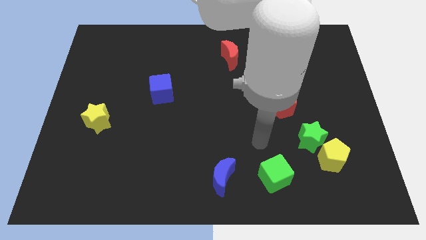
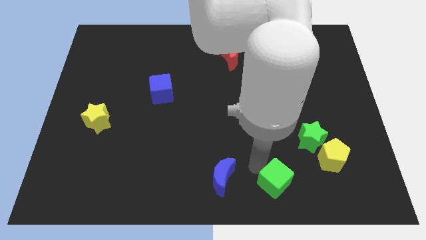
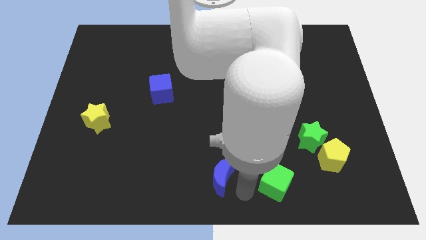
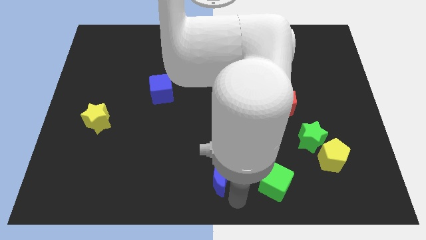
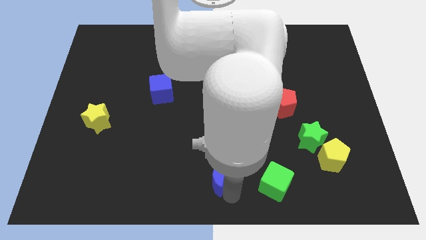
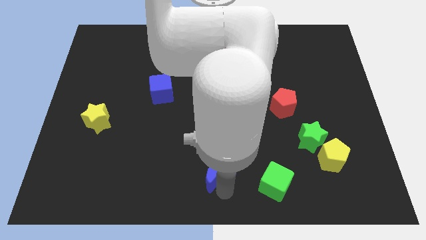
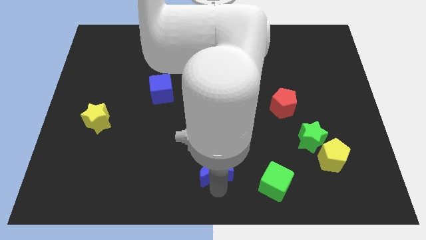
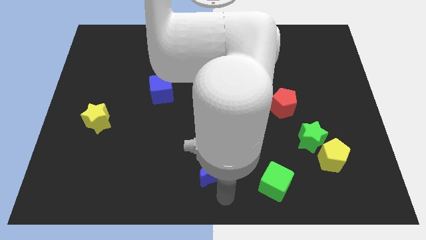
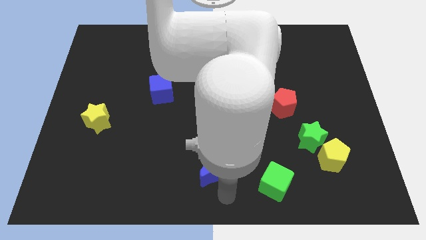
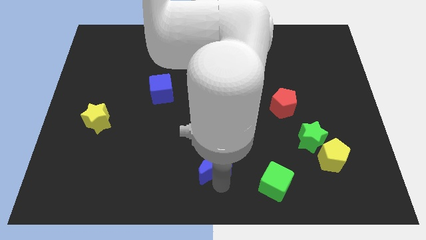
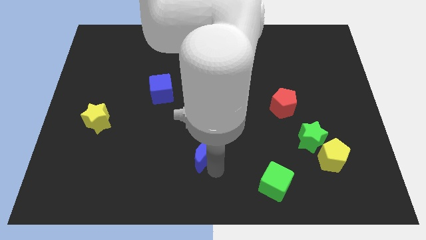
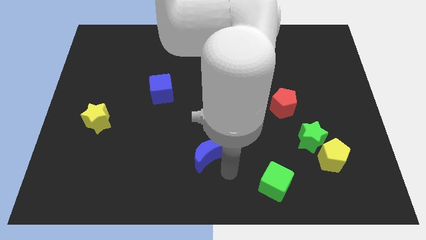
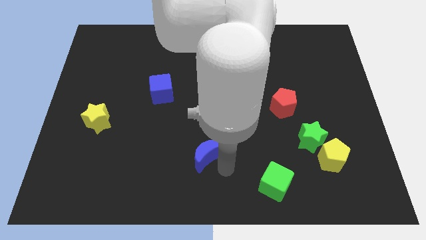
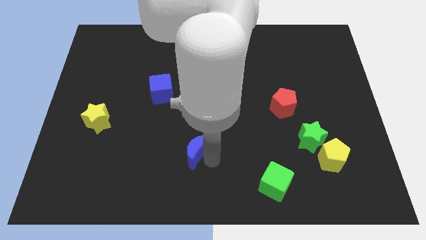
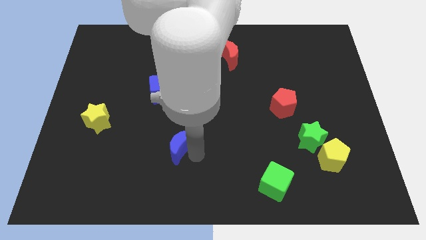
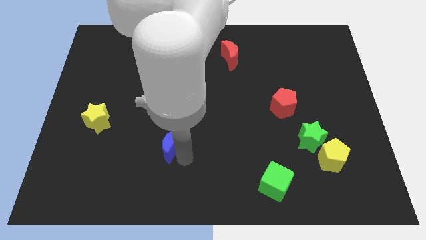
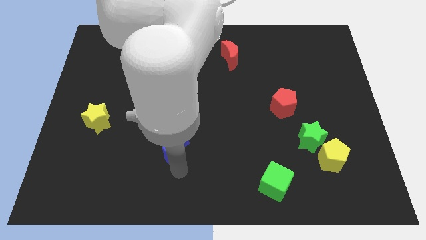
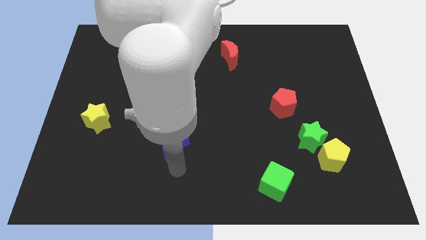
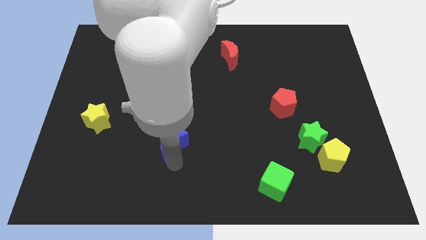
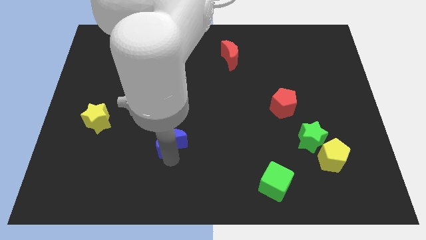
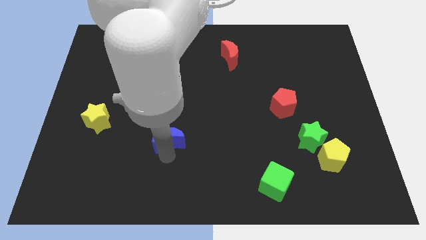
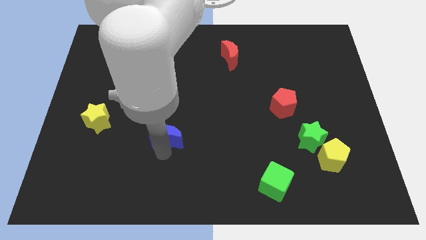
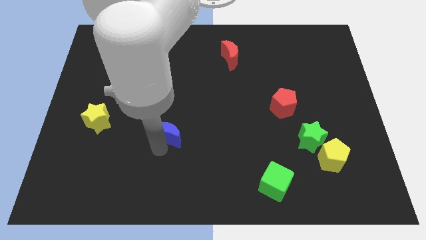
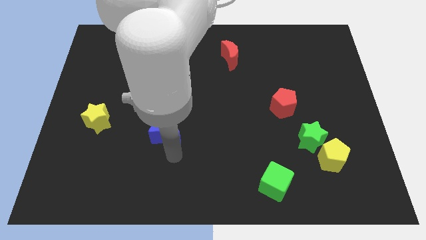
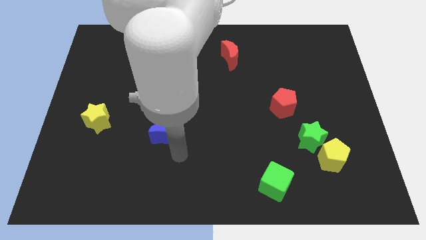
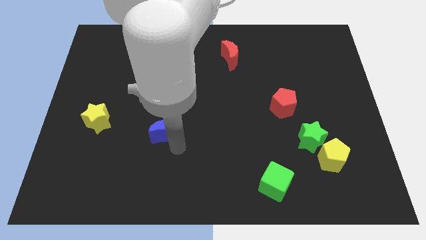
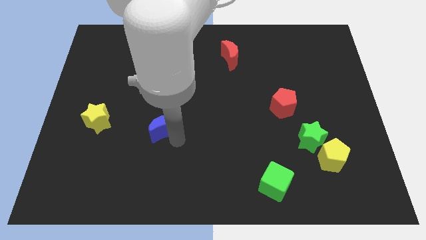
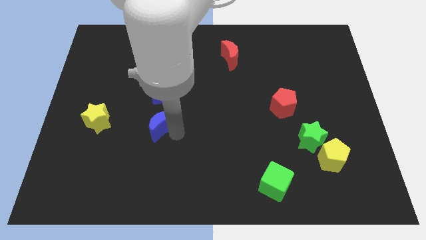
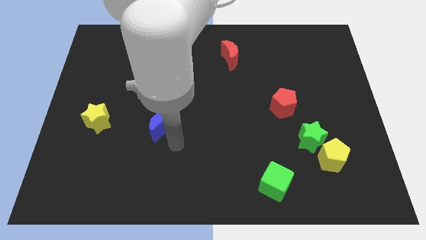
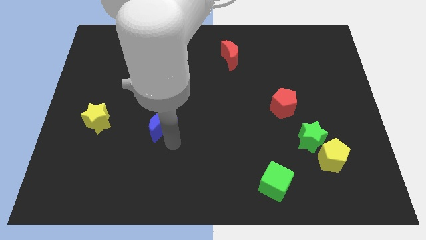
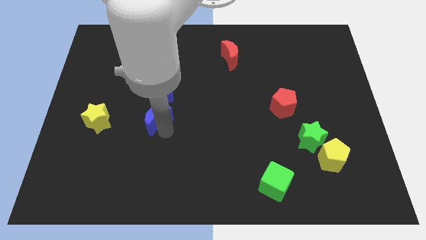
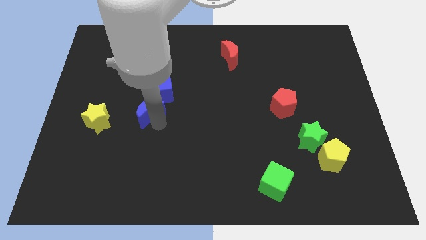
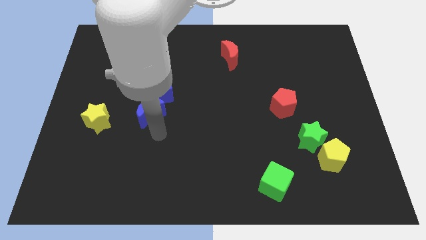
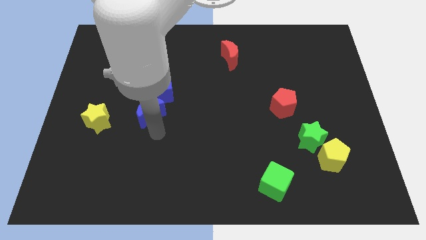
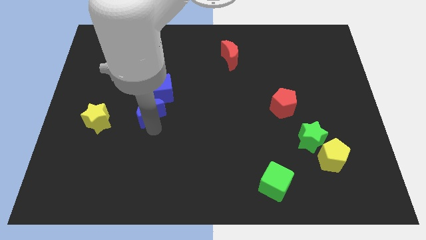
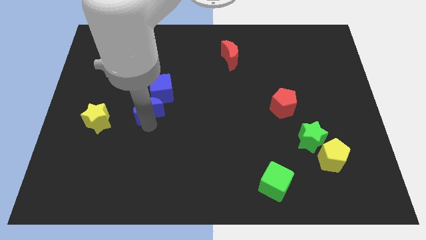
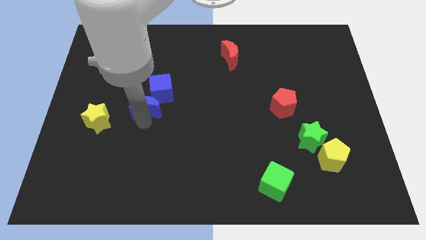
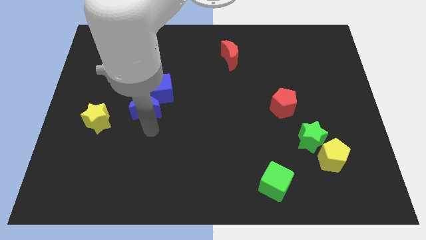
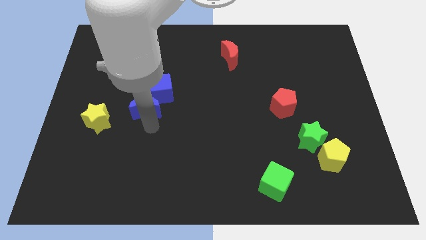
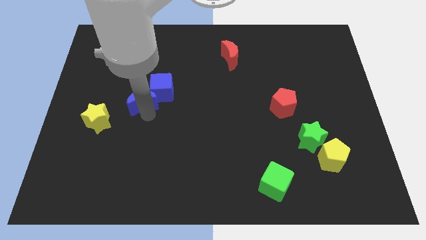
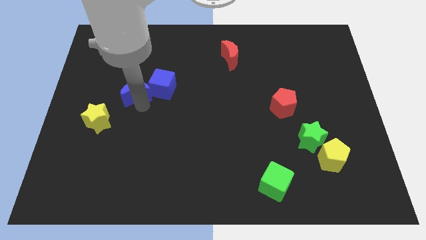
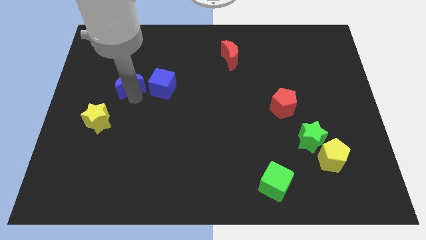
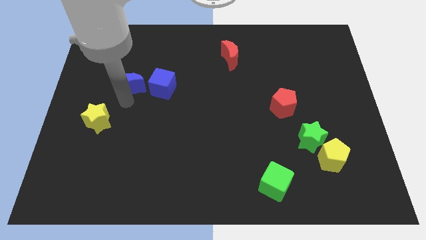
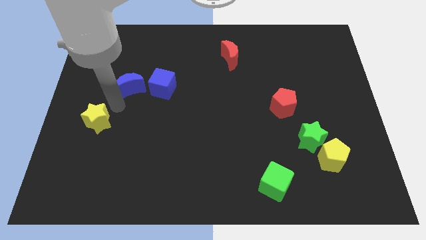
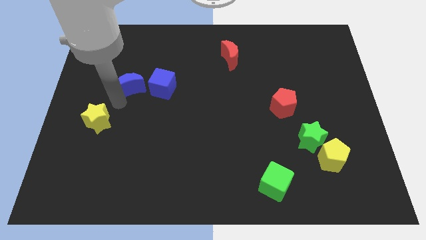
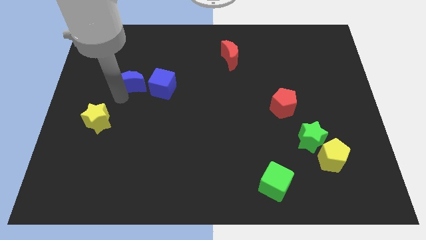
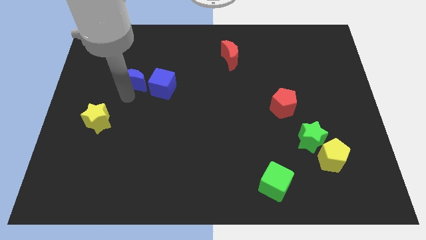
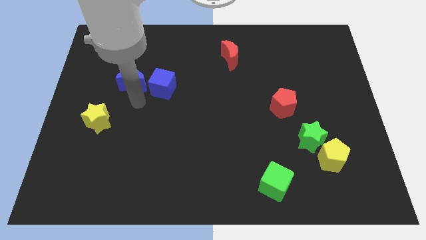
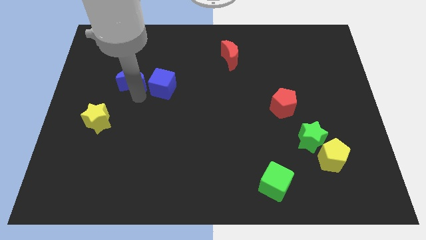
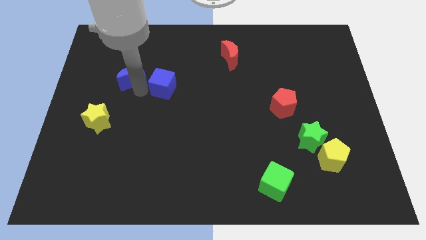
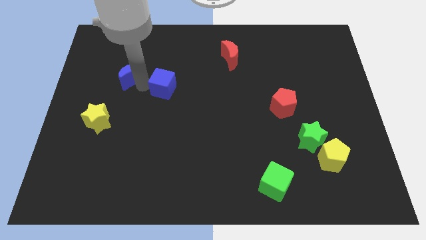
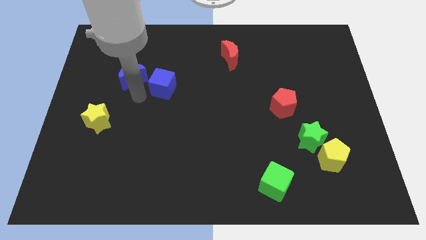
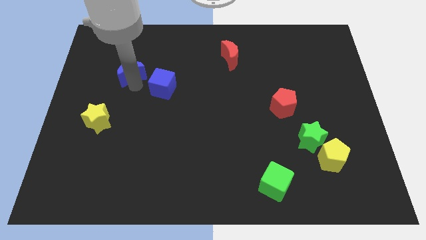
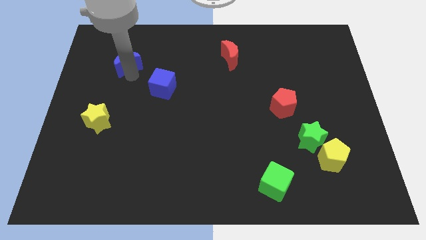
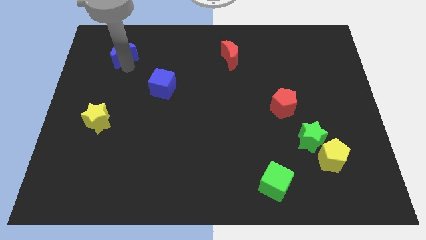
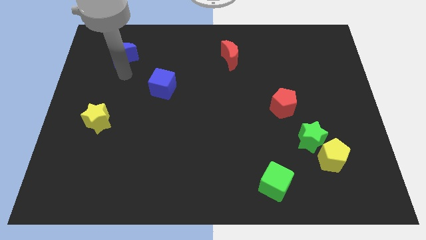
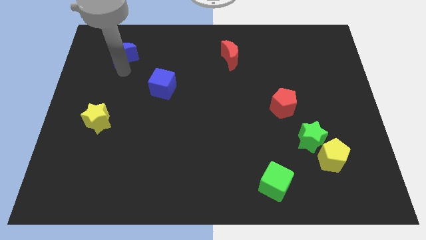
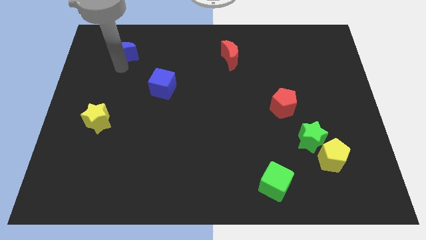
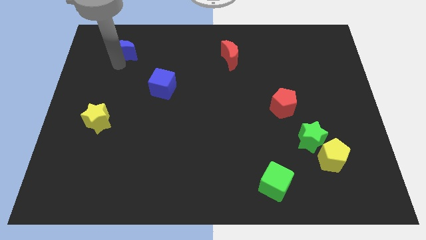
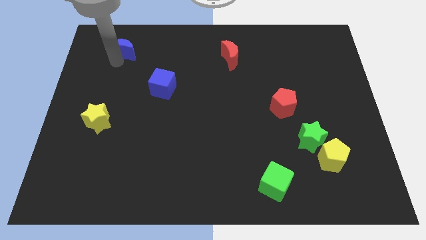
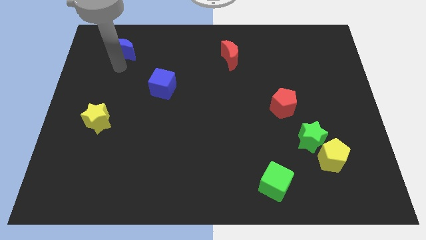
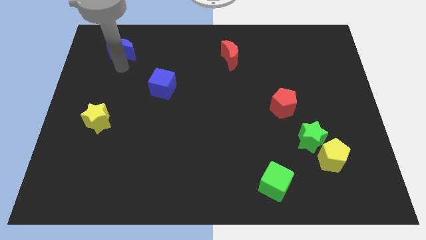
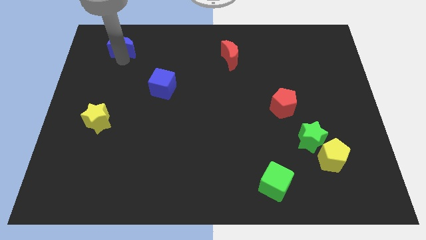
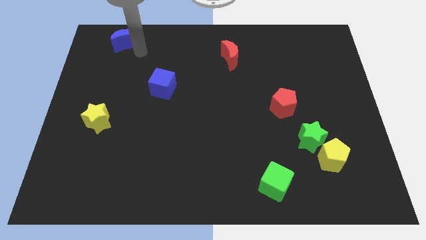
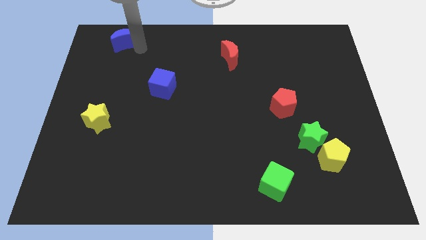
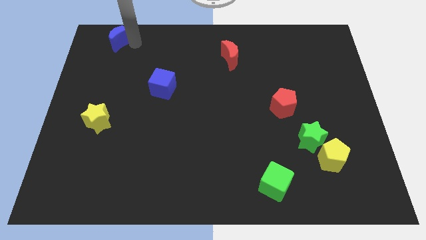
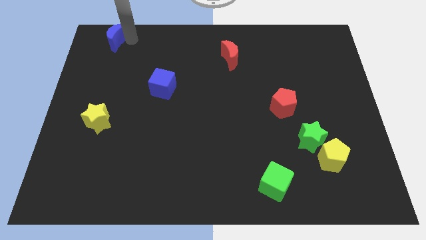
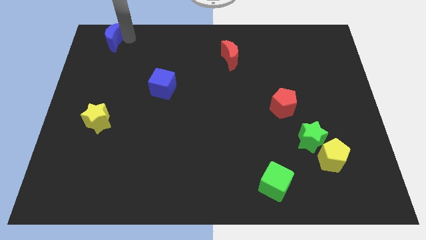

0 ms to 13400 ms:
slide the blue moon to the top left of the board

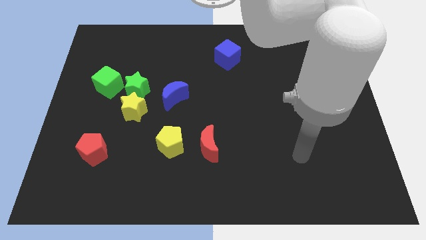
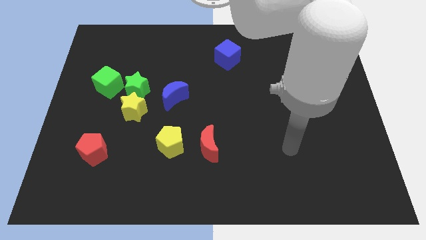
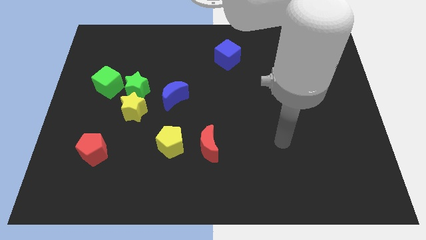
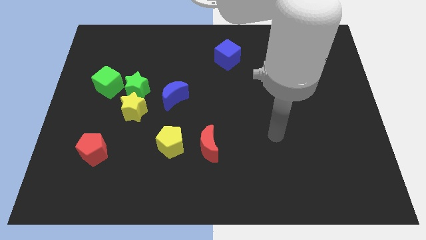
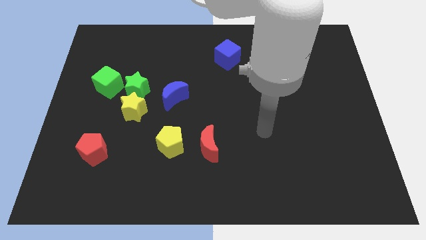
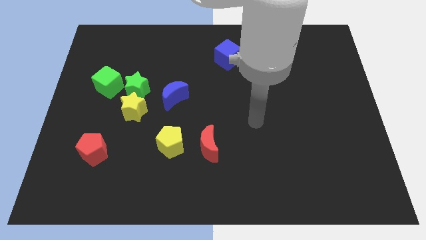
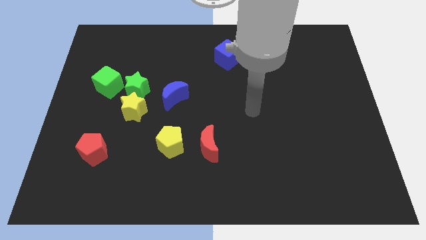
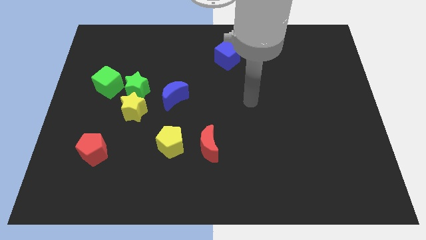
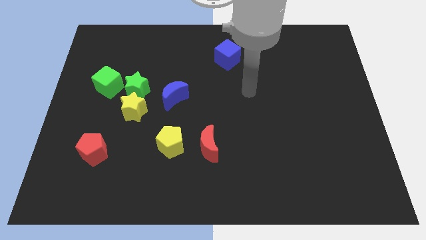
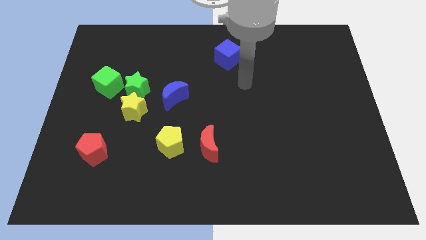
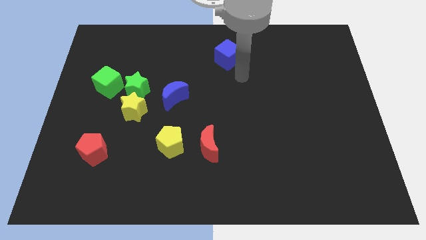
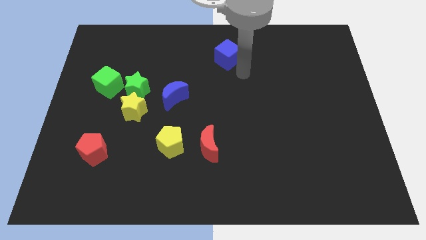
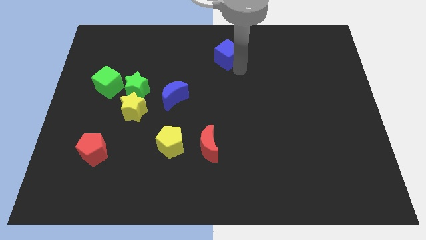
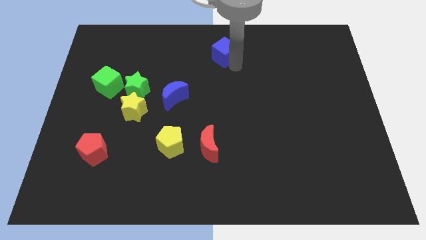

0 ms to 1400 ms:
put the blue cube to the top
